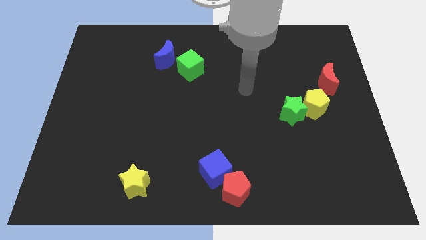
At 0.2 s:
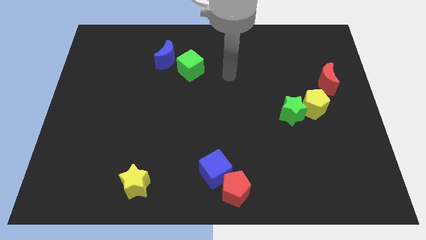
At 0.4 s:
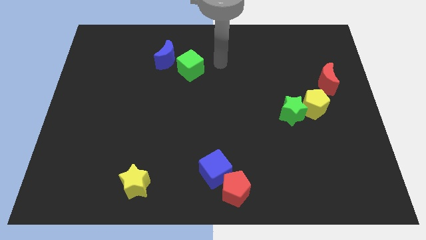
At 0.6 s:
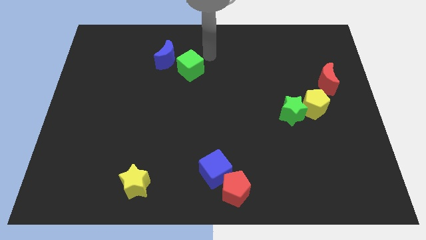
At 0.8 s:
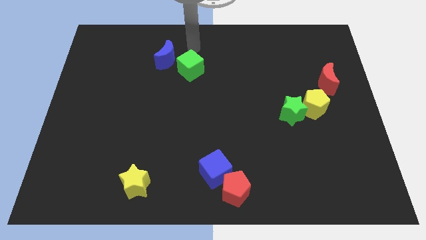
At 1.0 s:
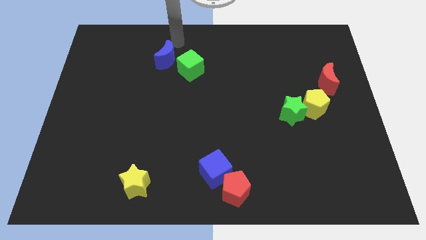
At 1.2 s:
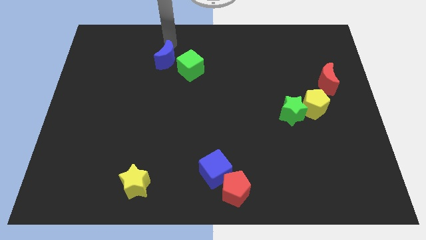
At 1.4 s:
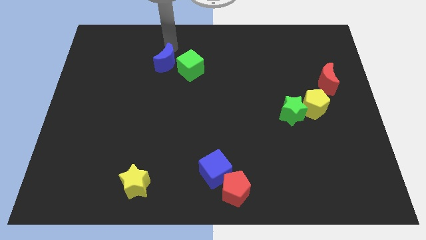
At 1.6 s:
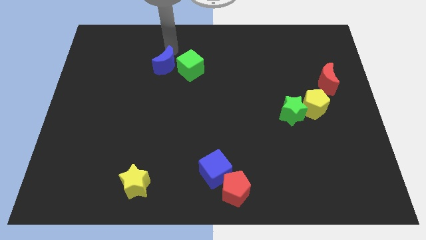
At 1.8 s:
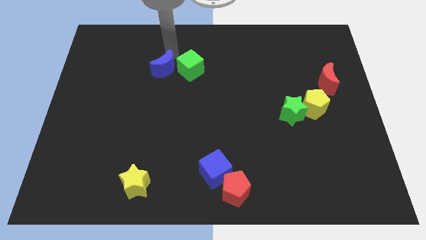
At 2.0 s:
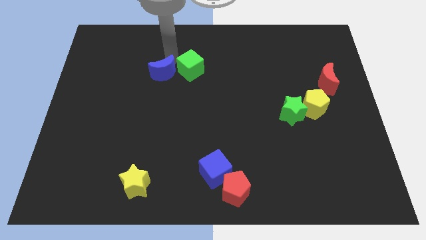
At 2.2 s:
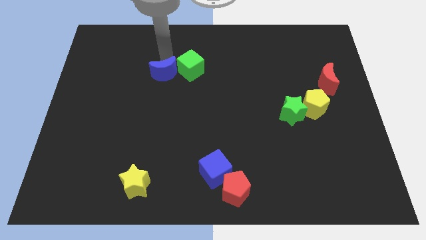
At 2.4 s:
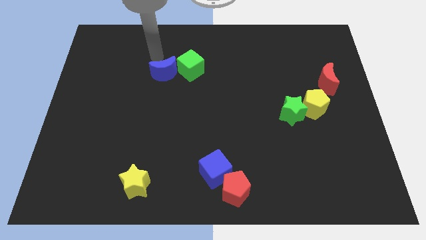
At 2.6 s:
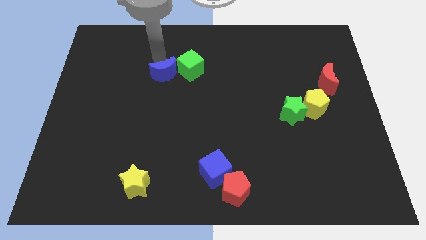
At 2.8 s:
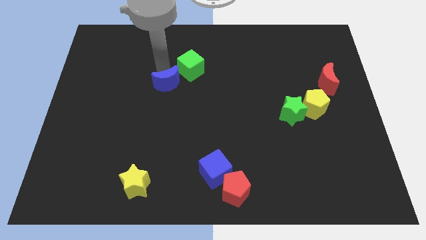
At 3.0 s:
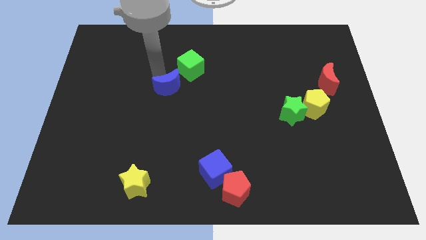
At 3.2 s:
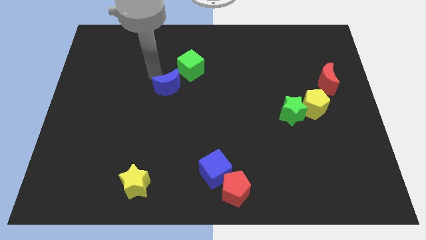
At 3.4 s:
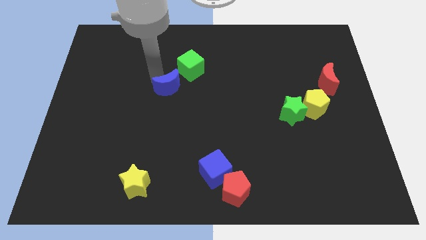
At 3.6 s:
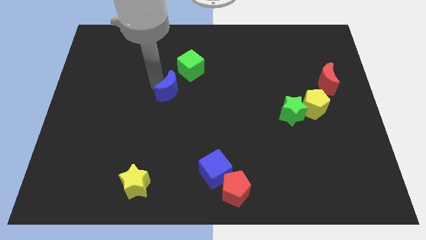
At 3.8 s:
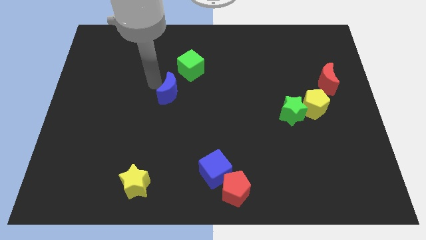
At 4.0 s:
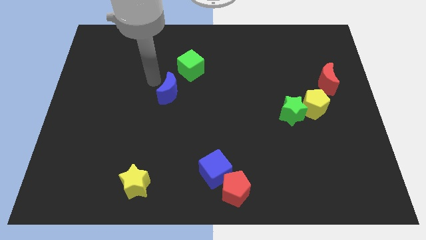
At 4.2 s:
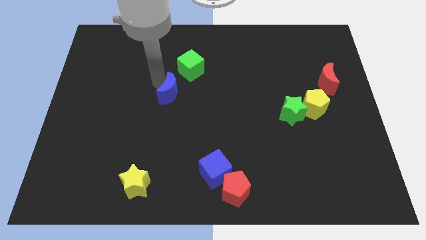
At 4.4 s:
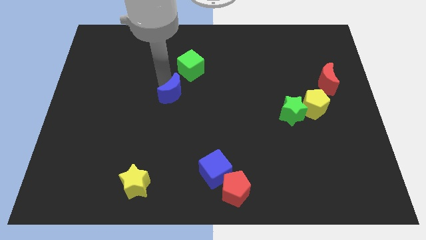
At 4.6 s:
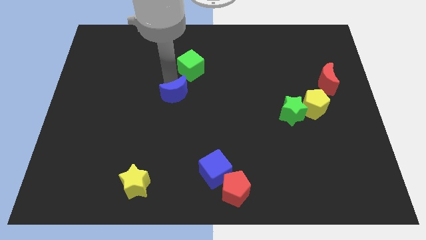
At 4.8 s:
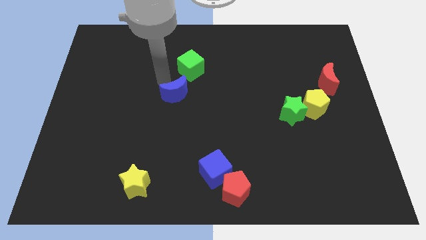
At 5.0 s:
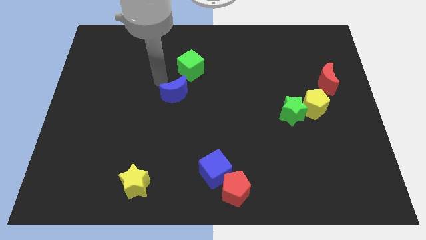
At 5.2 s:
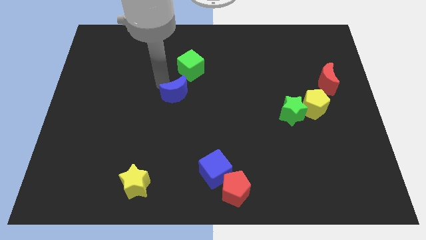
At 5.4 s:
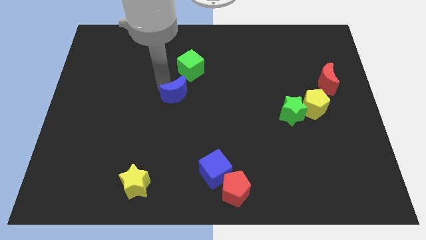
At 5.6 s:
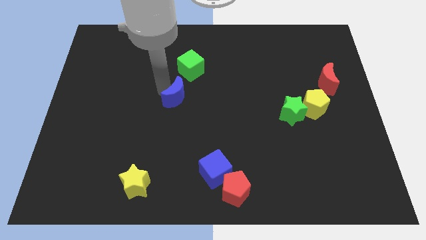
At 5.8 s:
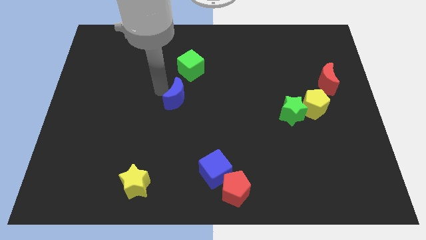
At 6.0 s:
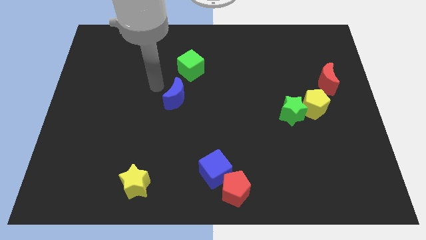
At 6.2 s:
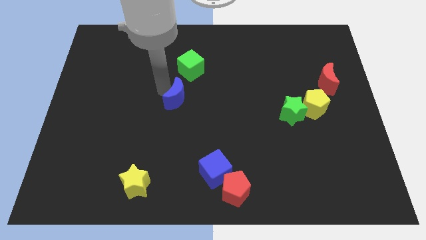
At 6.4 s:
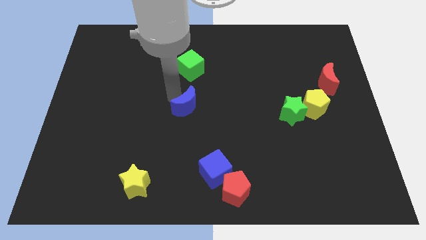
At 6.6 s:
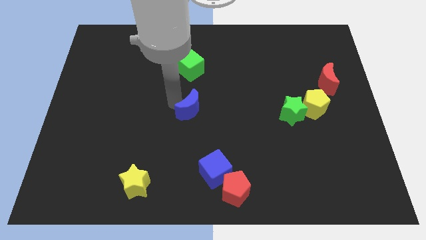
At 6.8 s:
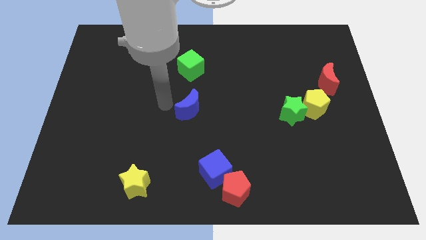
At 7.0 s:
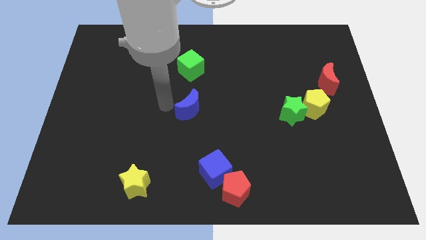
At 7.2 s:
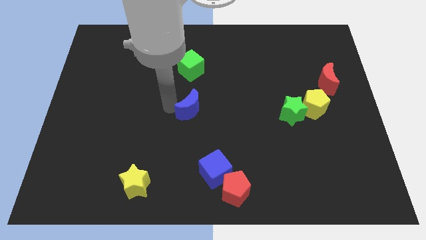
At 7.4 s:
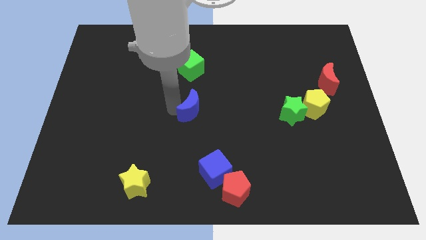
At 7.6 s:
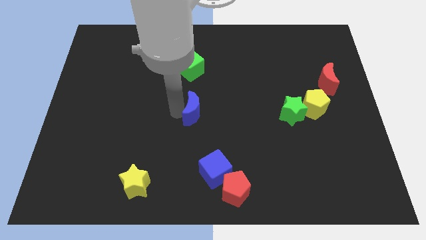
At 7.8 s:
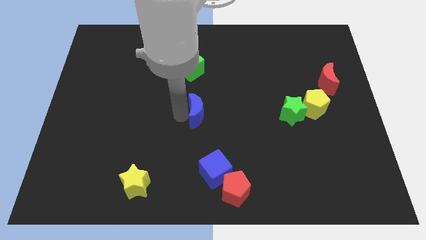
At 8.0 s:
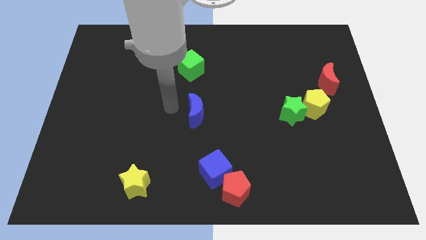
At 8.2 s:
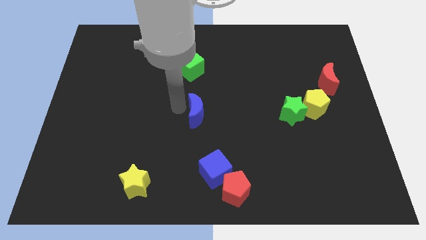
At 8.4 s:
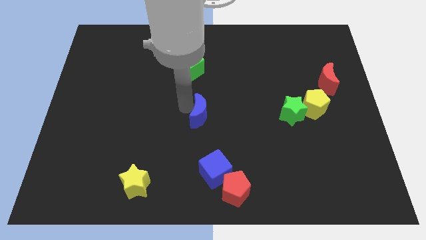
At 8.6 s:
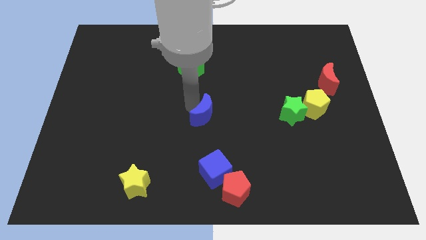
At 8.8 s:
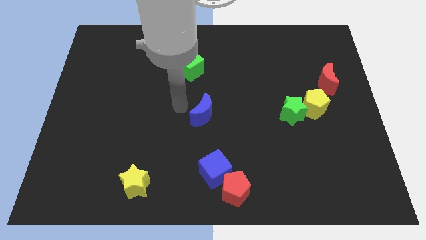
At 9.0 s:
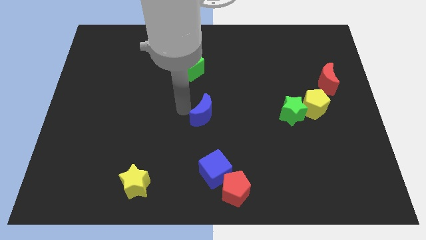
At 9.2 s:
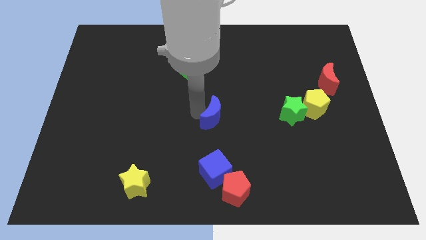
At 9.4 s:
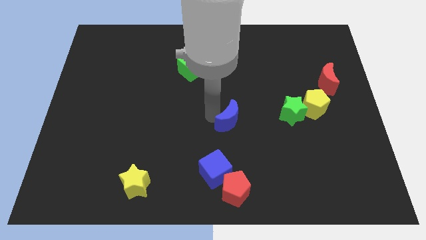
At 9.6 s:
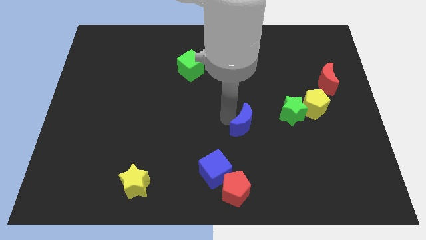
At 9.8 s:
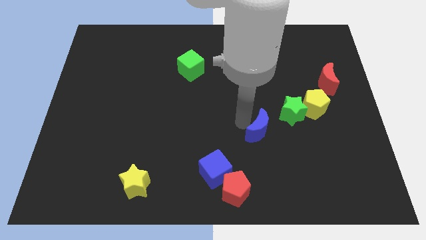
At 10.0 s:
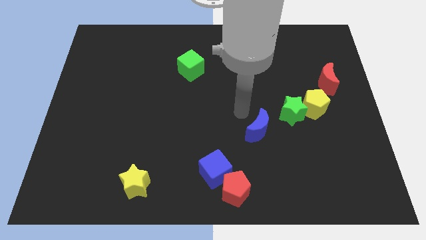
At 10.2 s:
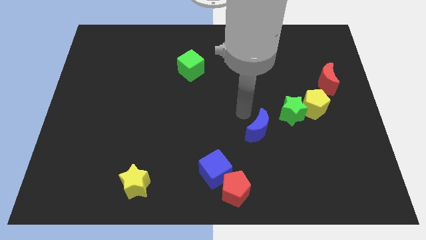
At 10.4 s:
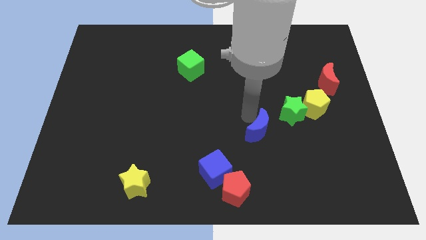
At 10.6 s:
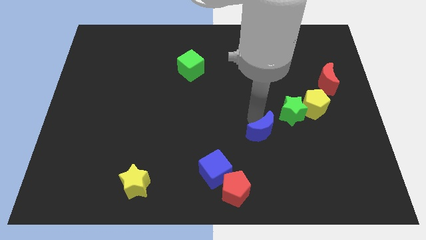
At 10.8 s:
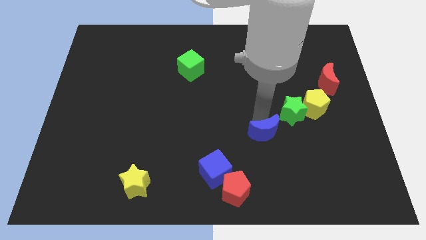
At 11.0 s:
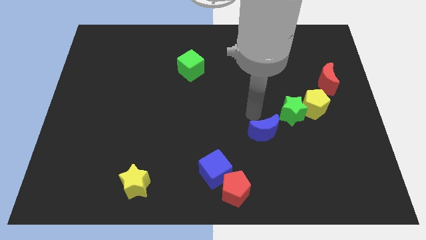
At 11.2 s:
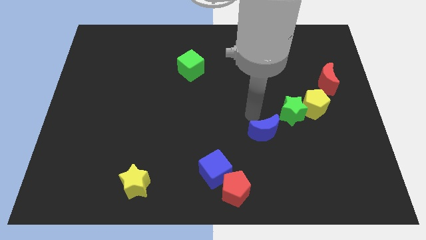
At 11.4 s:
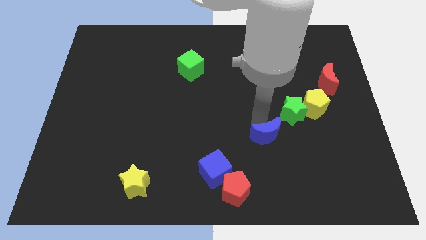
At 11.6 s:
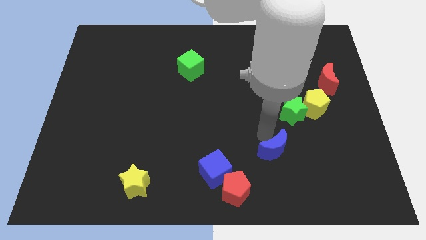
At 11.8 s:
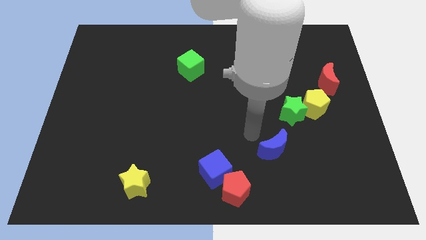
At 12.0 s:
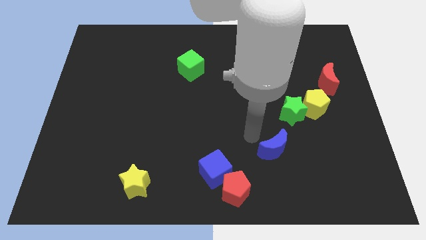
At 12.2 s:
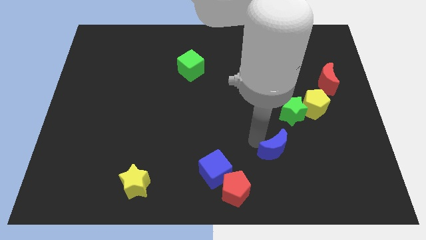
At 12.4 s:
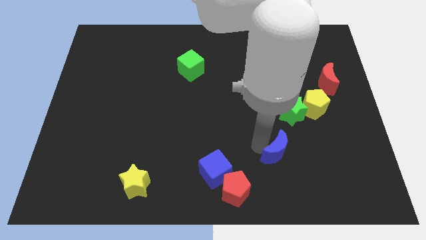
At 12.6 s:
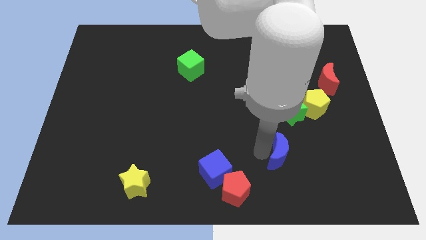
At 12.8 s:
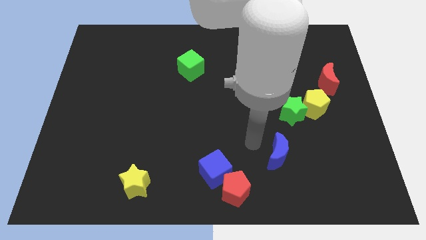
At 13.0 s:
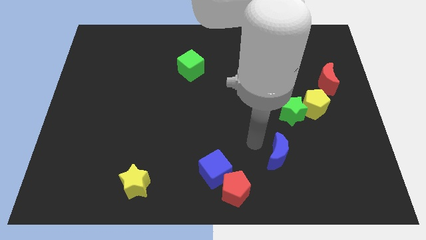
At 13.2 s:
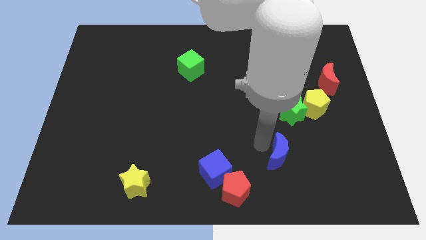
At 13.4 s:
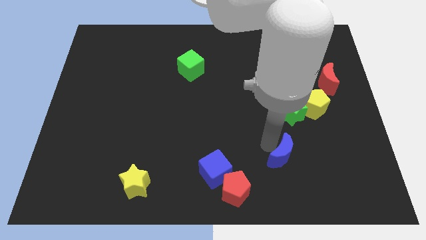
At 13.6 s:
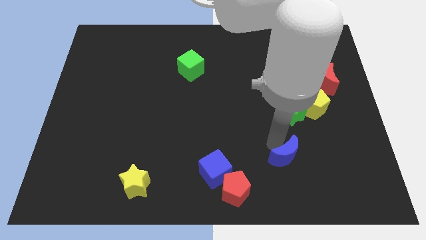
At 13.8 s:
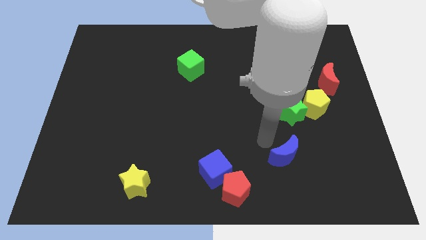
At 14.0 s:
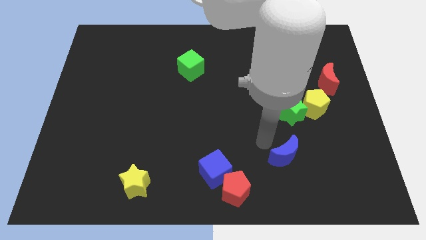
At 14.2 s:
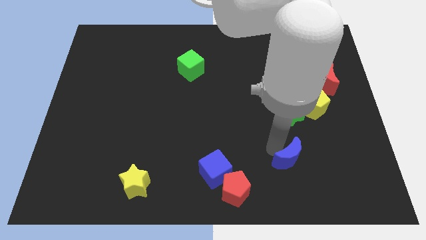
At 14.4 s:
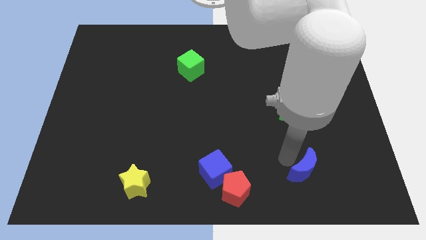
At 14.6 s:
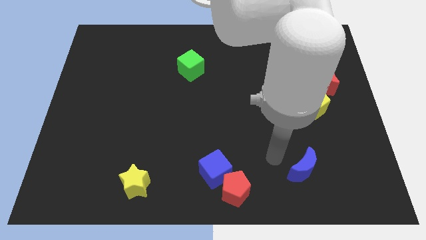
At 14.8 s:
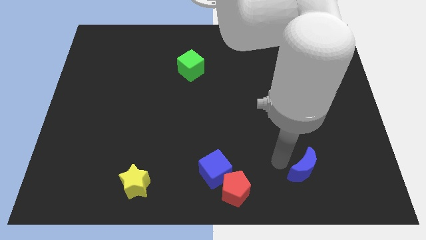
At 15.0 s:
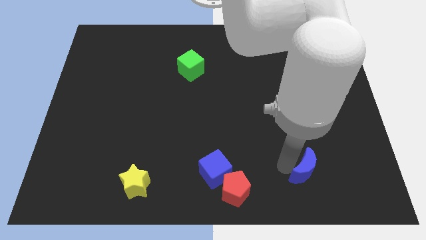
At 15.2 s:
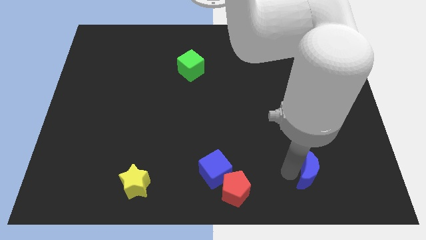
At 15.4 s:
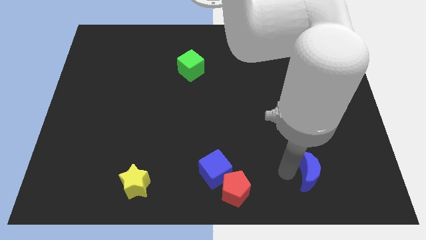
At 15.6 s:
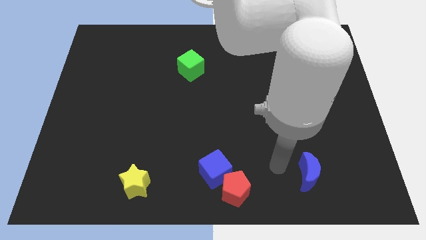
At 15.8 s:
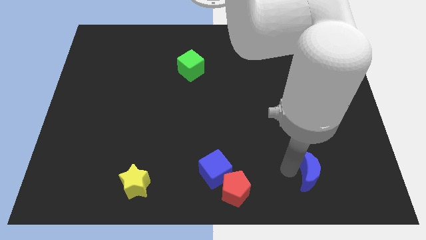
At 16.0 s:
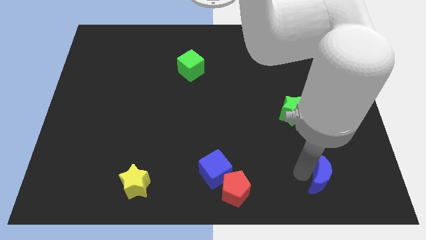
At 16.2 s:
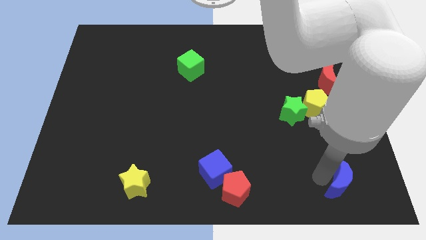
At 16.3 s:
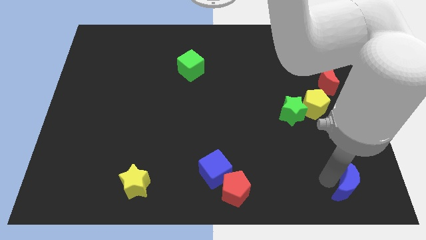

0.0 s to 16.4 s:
push the blue moon to the bottom right
